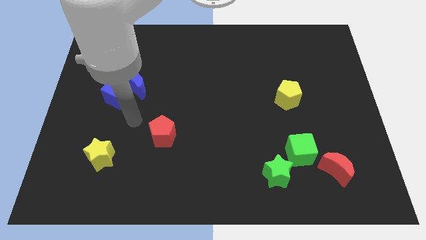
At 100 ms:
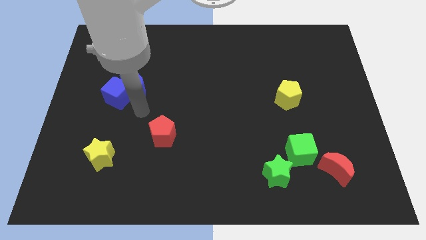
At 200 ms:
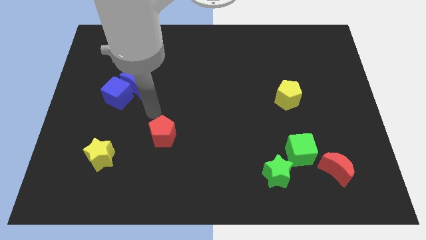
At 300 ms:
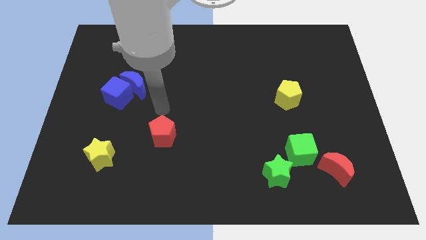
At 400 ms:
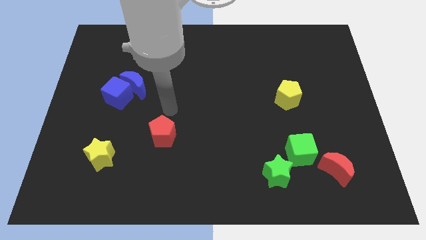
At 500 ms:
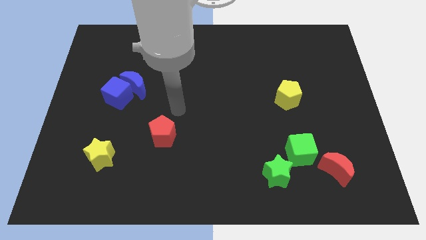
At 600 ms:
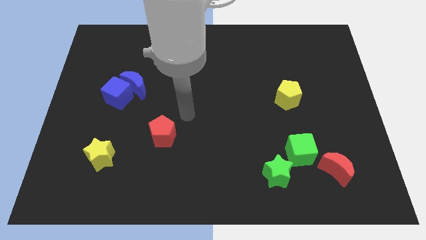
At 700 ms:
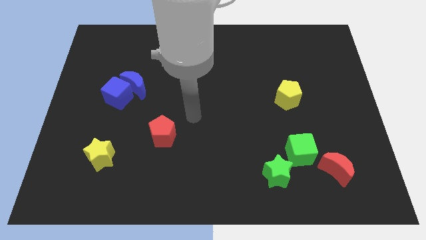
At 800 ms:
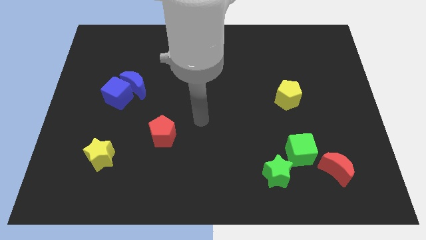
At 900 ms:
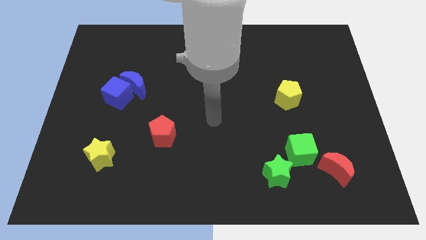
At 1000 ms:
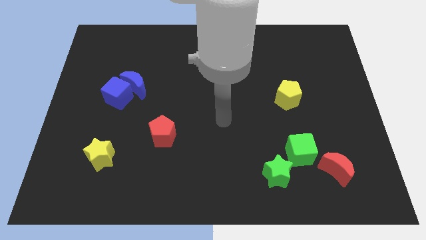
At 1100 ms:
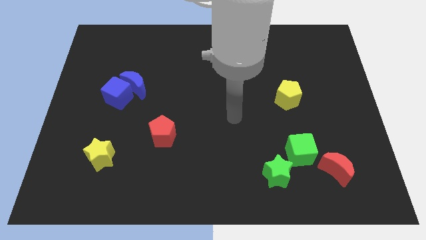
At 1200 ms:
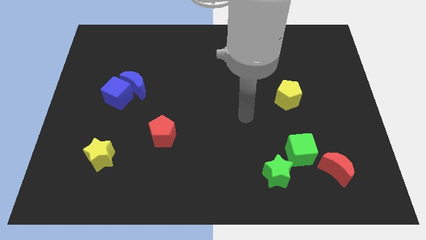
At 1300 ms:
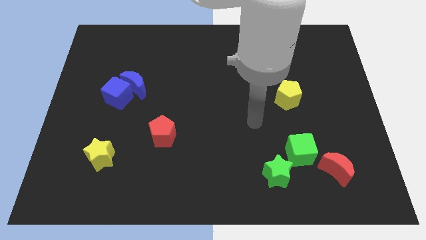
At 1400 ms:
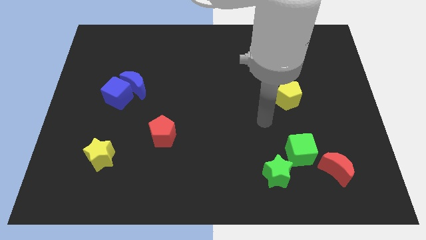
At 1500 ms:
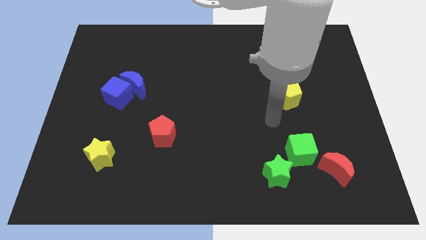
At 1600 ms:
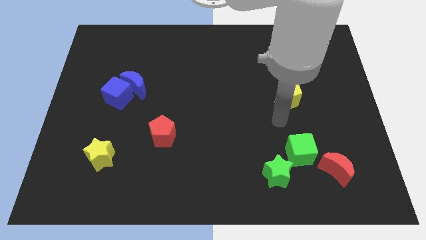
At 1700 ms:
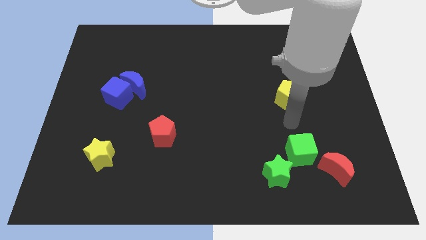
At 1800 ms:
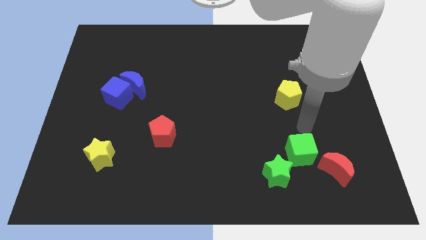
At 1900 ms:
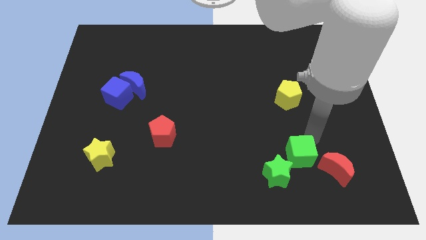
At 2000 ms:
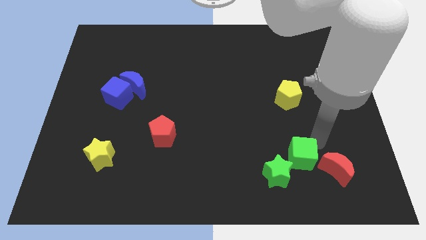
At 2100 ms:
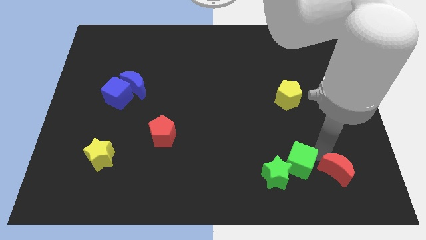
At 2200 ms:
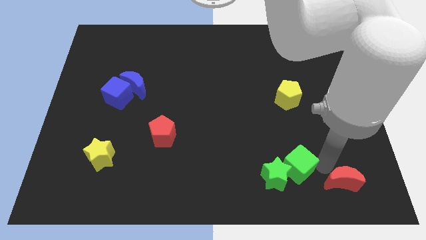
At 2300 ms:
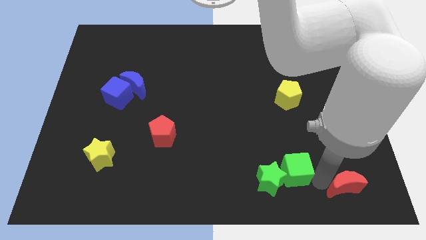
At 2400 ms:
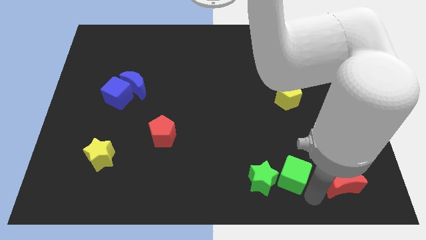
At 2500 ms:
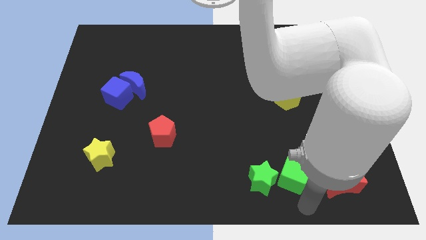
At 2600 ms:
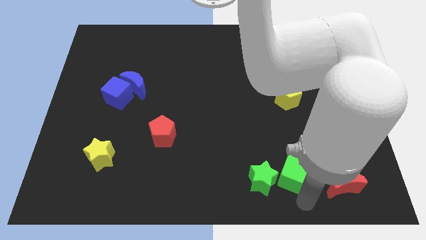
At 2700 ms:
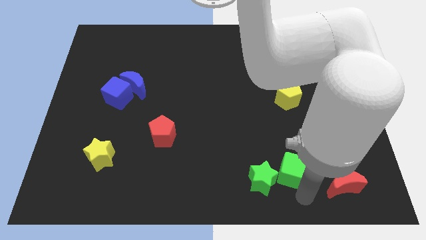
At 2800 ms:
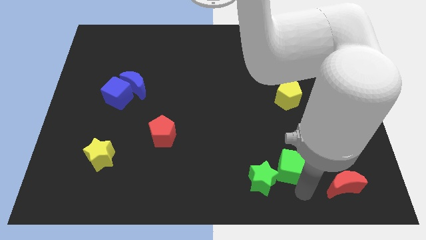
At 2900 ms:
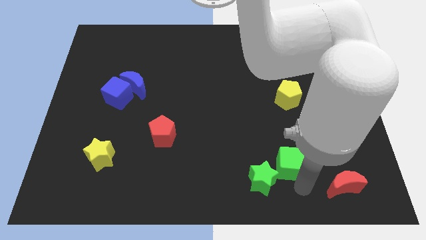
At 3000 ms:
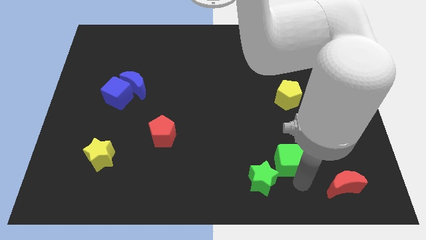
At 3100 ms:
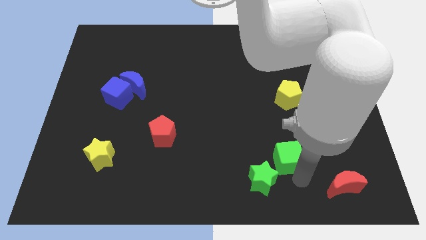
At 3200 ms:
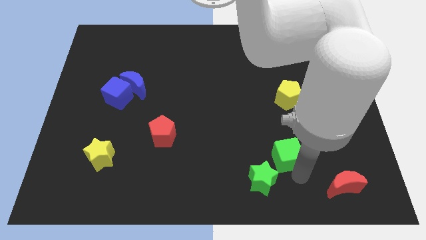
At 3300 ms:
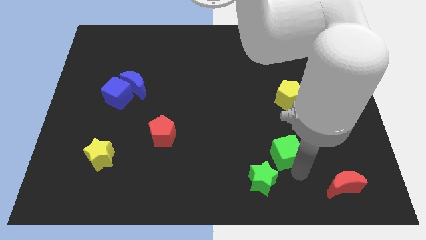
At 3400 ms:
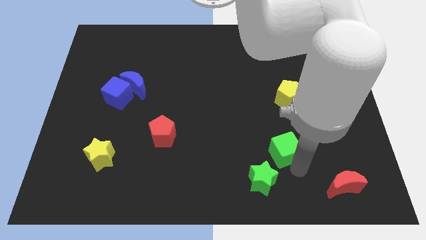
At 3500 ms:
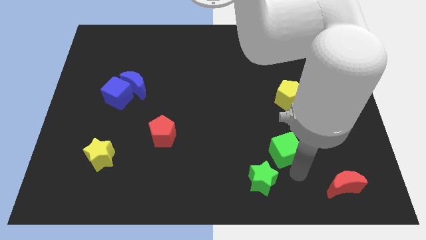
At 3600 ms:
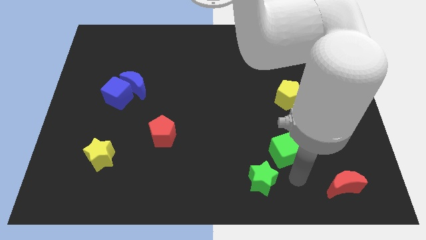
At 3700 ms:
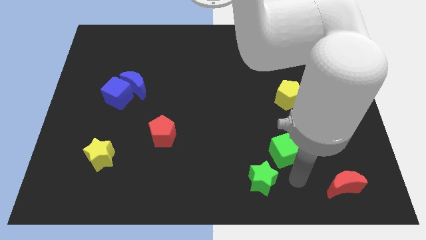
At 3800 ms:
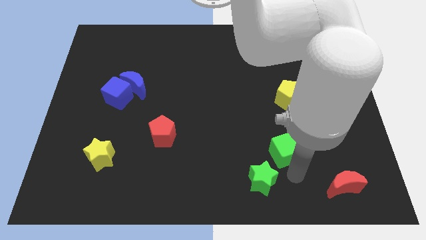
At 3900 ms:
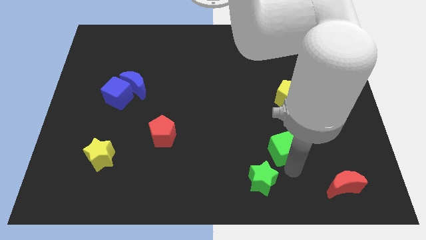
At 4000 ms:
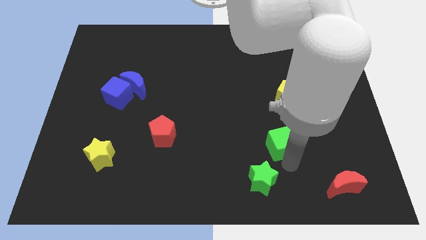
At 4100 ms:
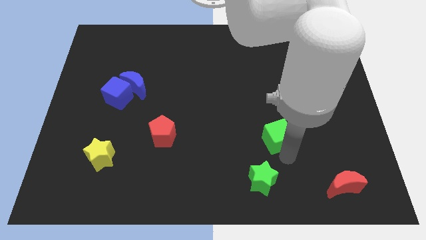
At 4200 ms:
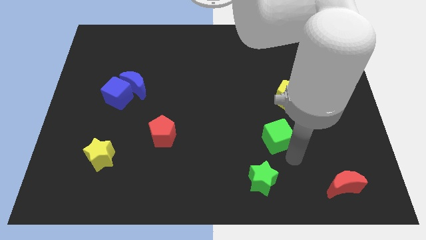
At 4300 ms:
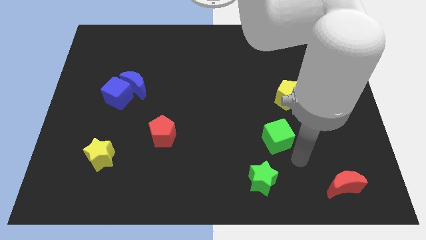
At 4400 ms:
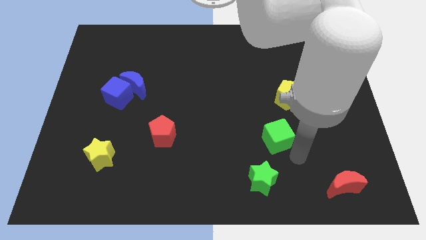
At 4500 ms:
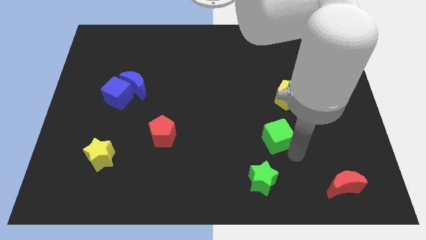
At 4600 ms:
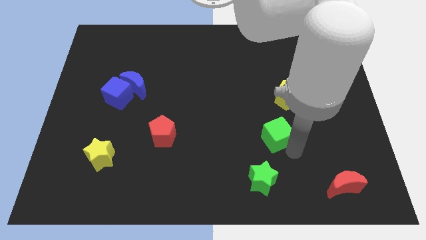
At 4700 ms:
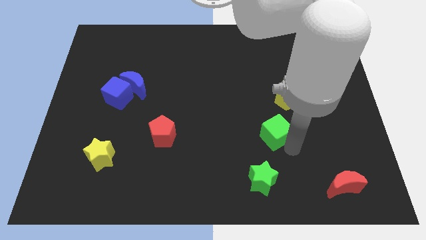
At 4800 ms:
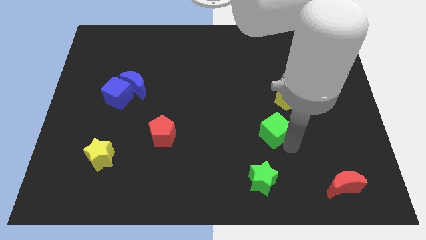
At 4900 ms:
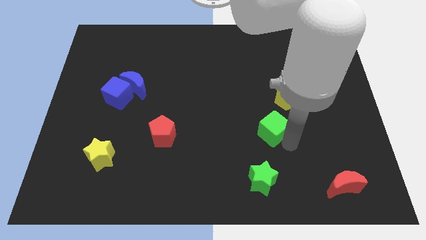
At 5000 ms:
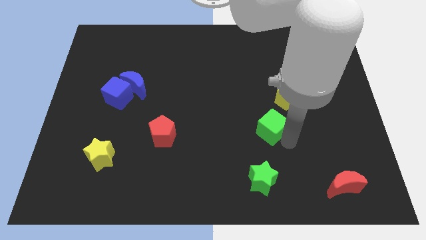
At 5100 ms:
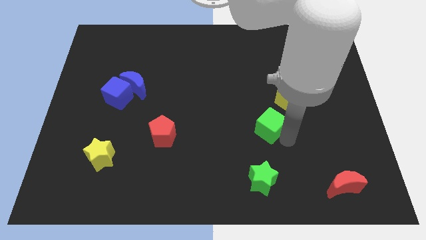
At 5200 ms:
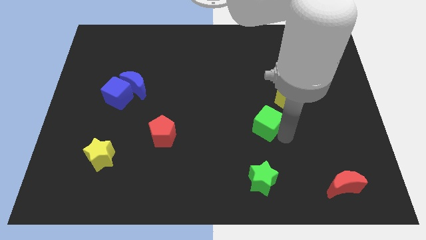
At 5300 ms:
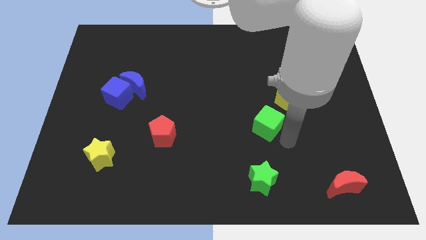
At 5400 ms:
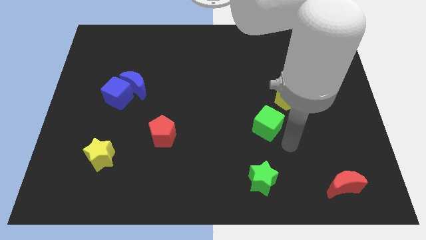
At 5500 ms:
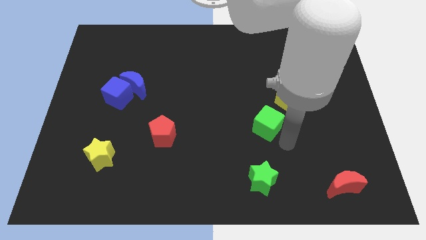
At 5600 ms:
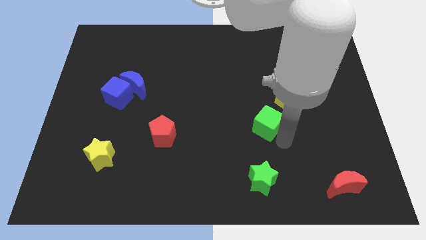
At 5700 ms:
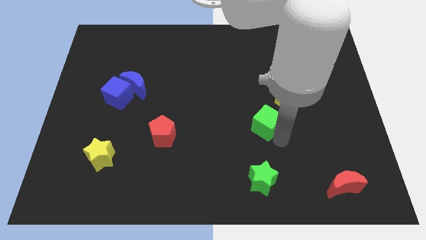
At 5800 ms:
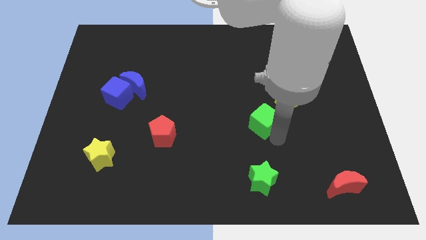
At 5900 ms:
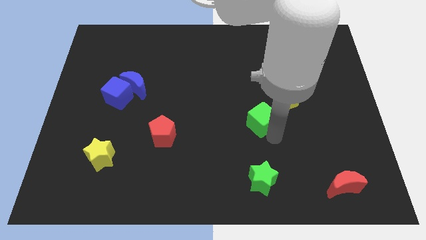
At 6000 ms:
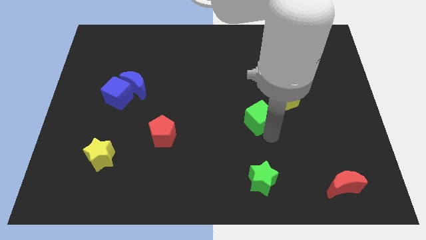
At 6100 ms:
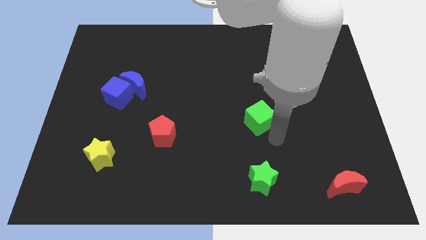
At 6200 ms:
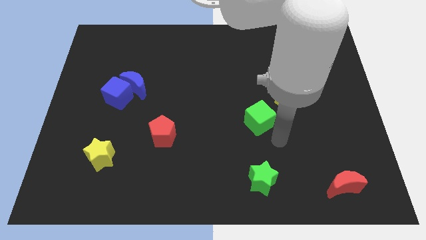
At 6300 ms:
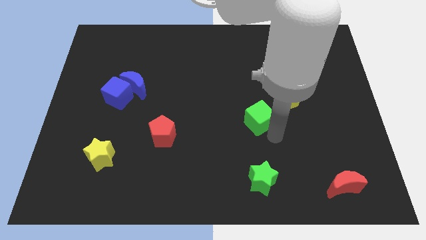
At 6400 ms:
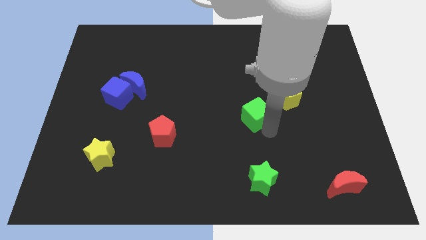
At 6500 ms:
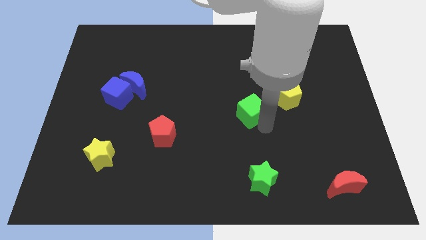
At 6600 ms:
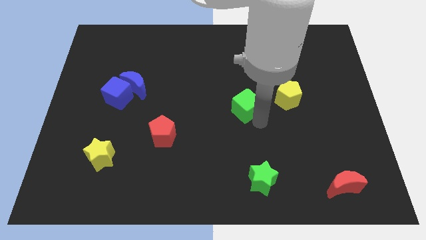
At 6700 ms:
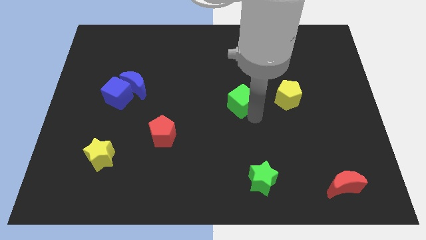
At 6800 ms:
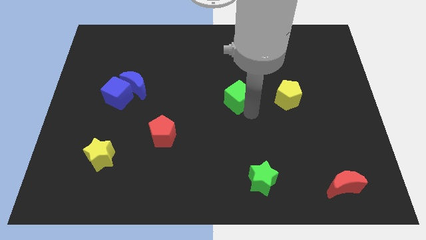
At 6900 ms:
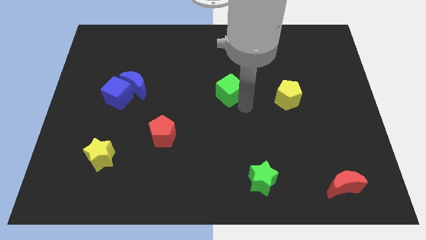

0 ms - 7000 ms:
push the green cube upwards and left

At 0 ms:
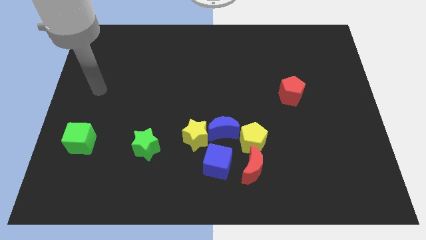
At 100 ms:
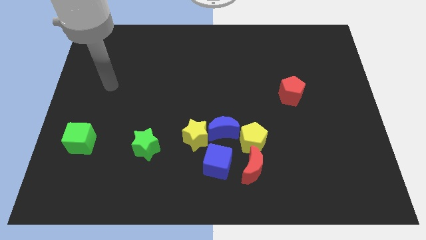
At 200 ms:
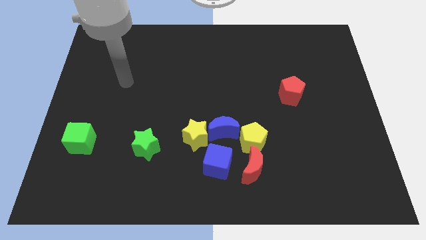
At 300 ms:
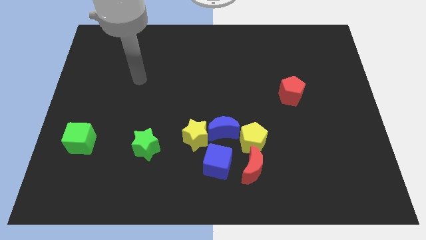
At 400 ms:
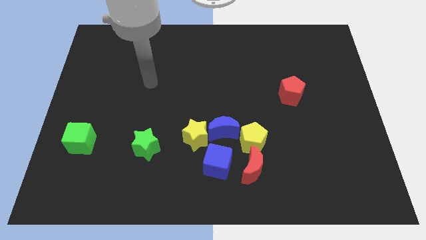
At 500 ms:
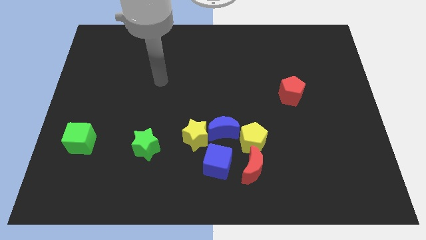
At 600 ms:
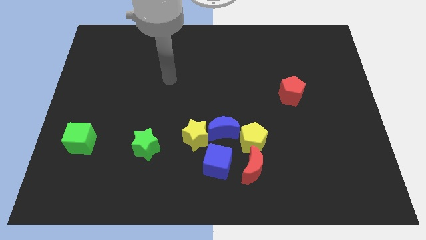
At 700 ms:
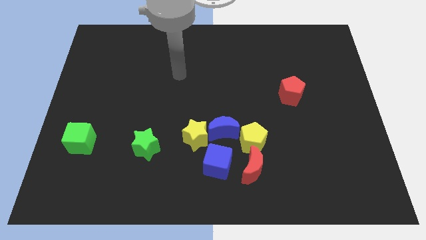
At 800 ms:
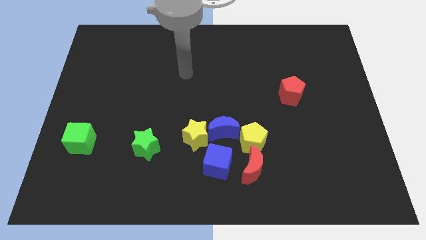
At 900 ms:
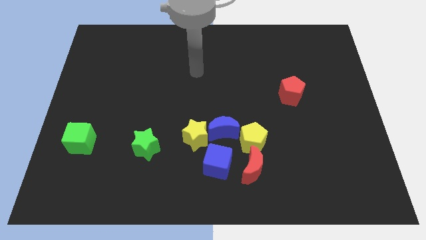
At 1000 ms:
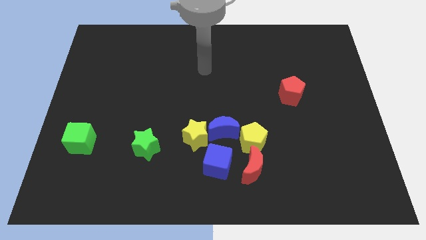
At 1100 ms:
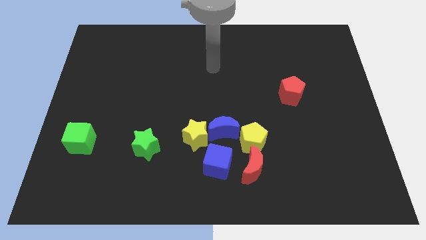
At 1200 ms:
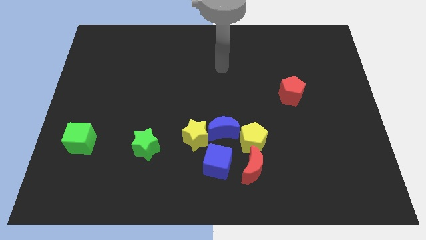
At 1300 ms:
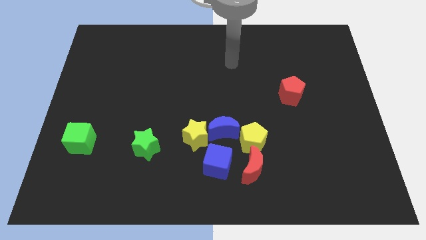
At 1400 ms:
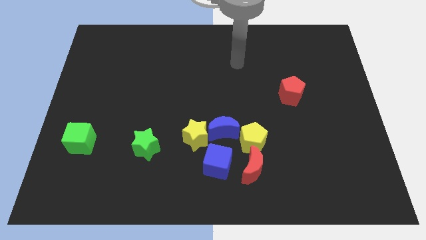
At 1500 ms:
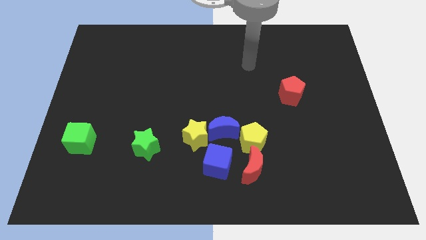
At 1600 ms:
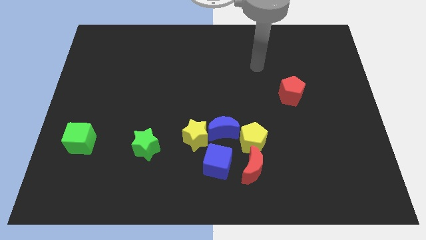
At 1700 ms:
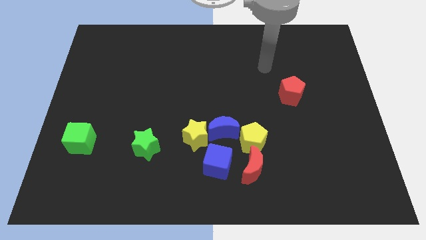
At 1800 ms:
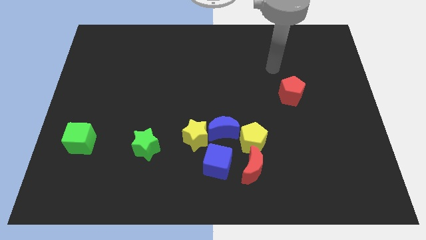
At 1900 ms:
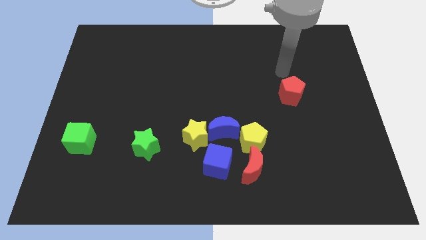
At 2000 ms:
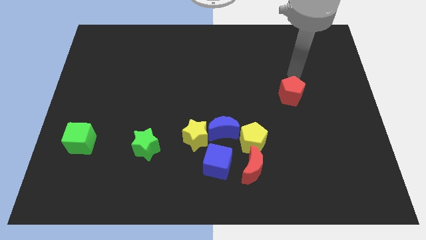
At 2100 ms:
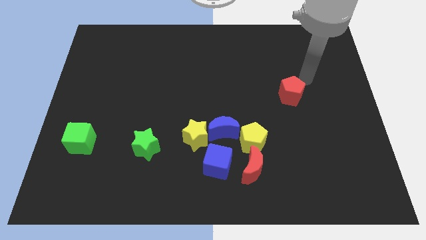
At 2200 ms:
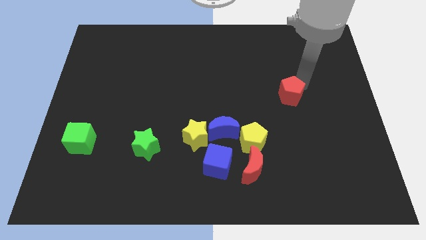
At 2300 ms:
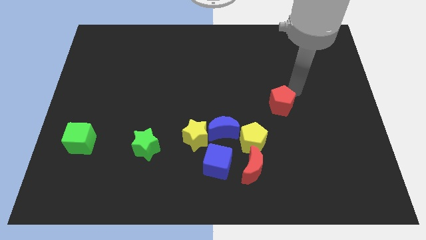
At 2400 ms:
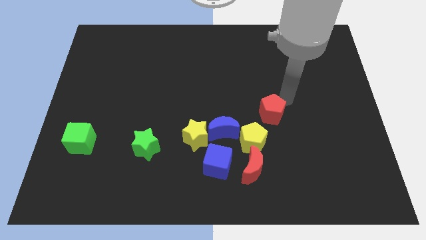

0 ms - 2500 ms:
slightly move the red pentagon diagonally down and left
